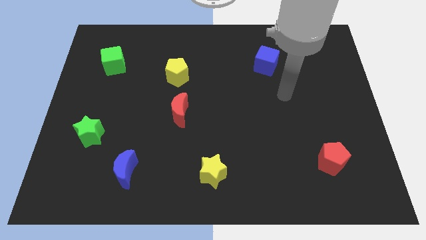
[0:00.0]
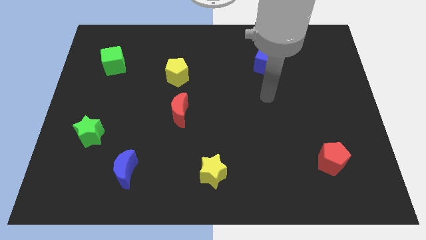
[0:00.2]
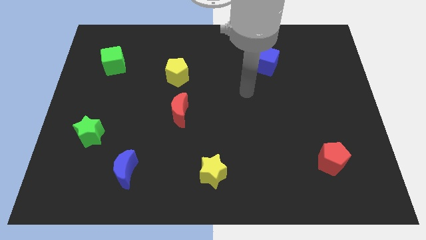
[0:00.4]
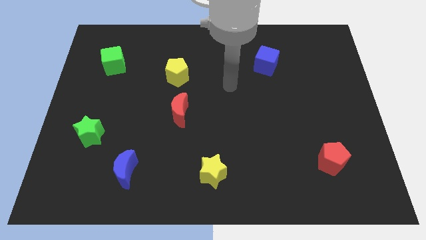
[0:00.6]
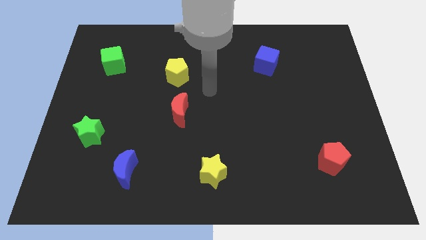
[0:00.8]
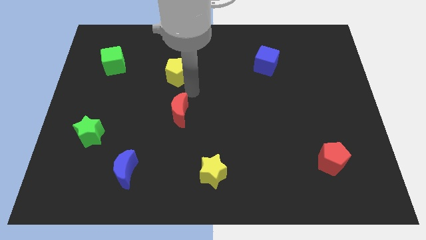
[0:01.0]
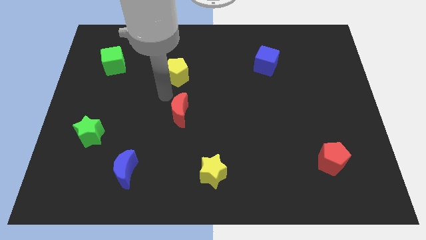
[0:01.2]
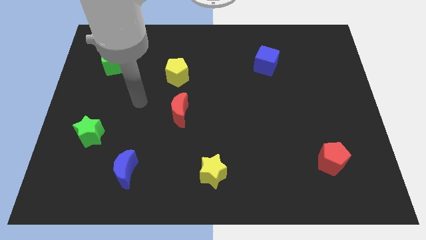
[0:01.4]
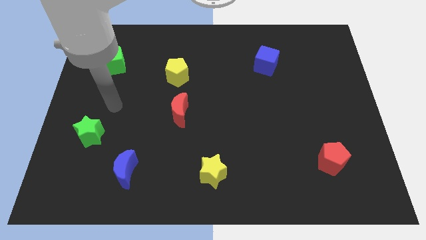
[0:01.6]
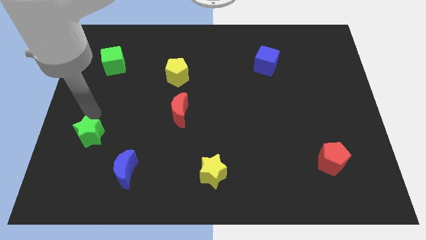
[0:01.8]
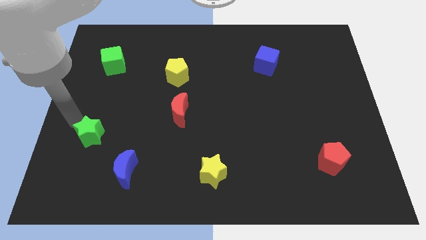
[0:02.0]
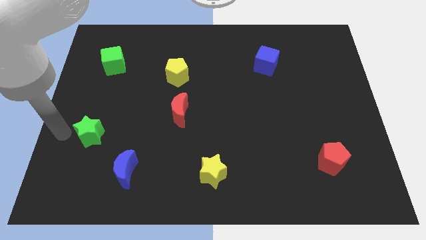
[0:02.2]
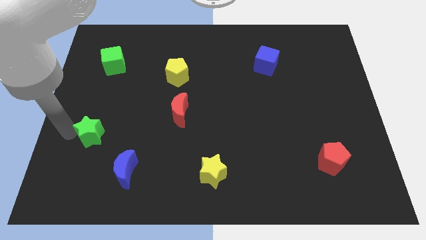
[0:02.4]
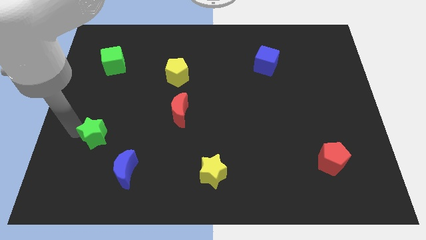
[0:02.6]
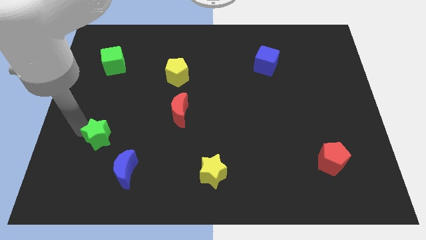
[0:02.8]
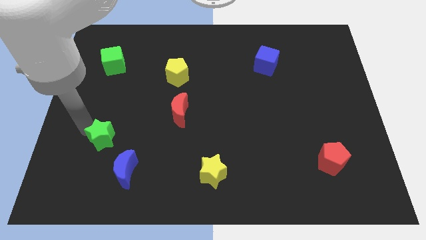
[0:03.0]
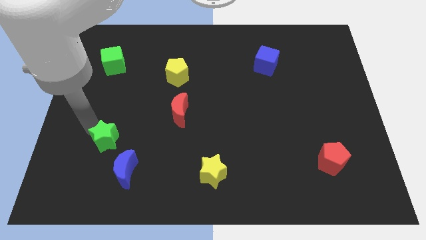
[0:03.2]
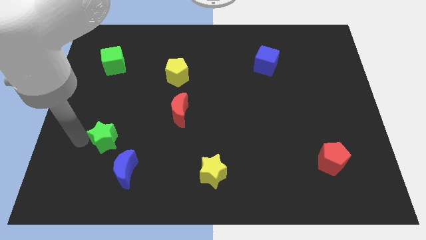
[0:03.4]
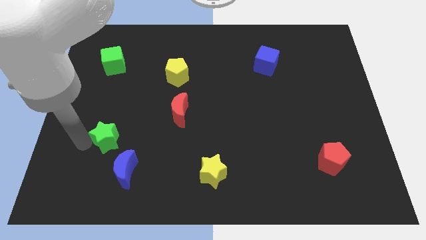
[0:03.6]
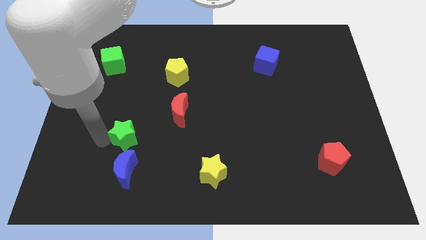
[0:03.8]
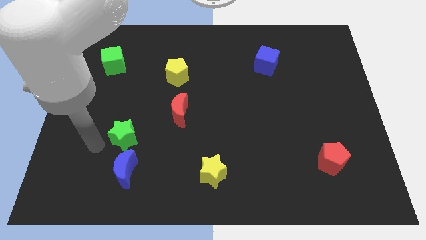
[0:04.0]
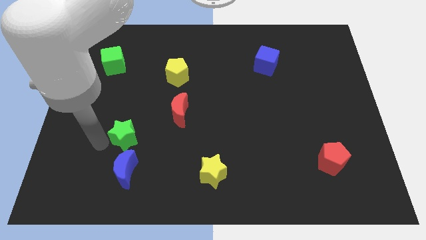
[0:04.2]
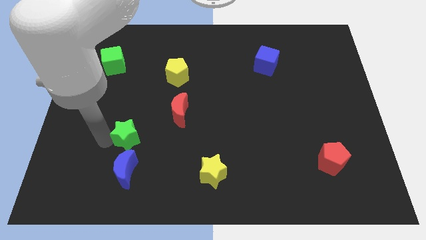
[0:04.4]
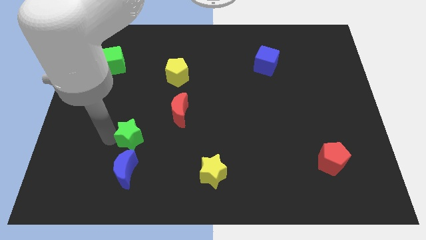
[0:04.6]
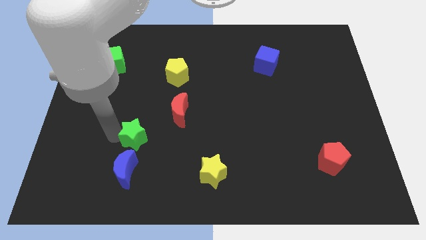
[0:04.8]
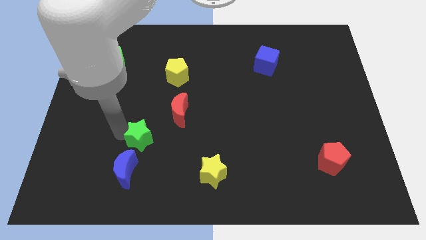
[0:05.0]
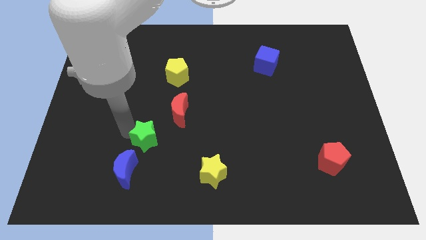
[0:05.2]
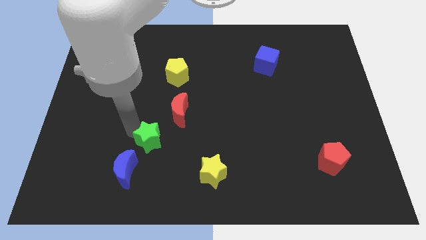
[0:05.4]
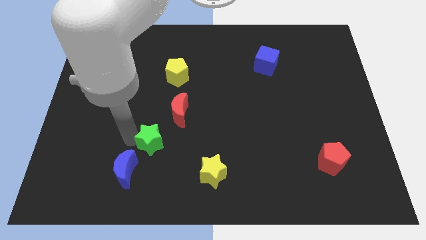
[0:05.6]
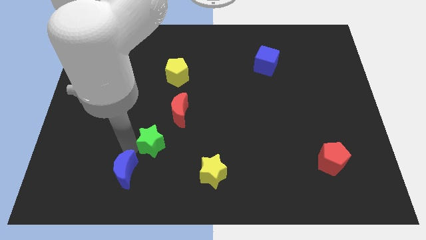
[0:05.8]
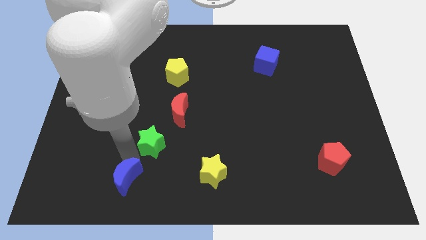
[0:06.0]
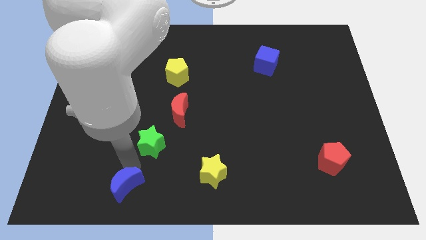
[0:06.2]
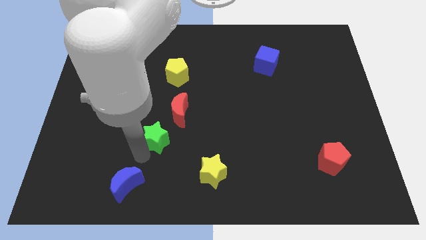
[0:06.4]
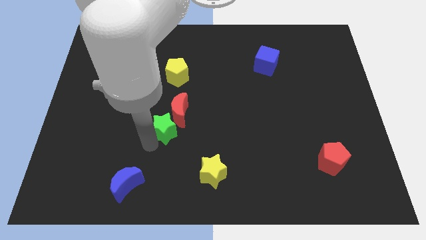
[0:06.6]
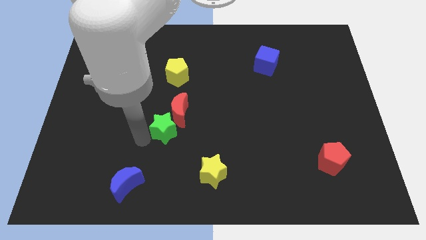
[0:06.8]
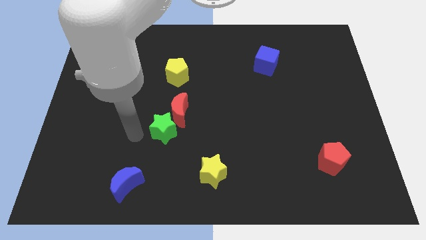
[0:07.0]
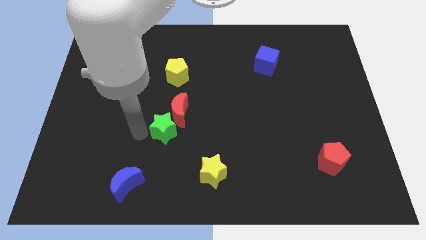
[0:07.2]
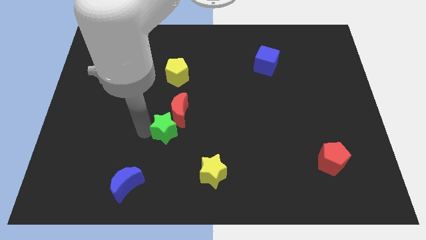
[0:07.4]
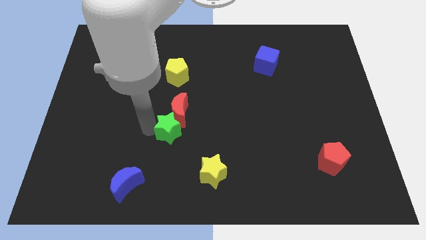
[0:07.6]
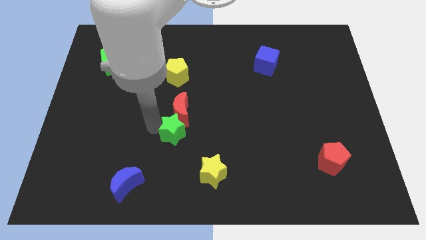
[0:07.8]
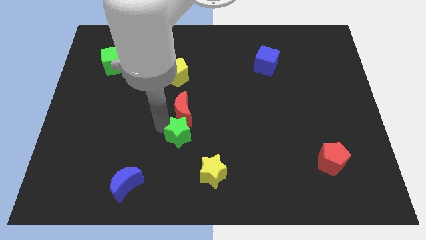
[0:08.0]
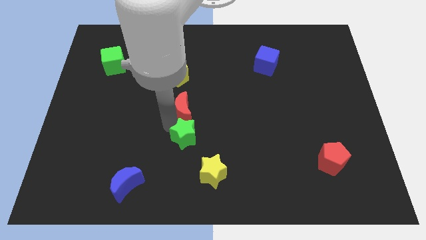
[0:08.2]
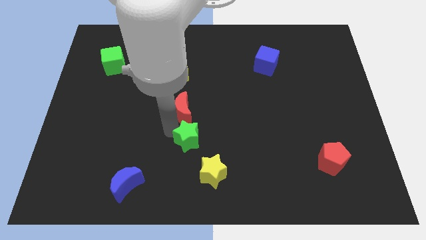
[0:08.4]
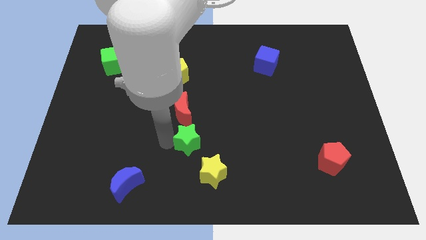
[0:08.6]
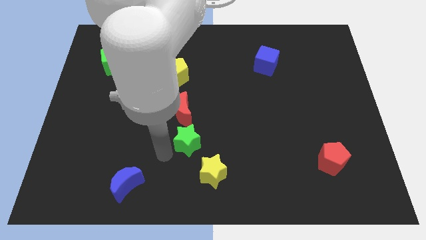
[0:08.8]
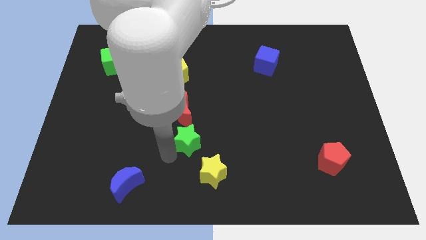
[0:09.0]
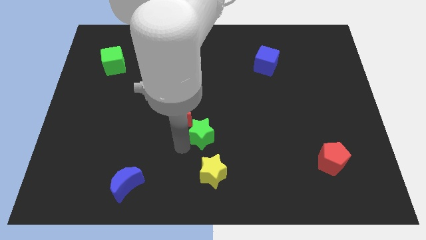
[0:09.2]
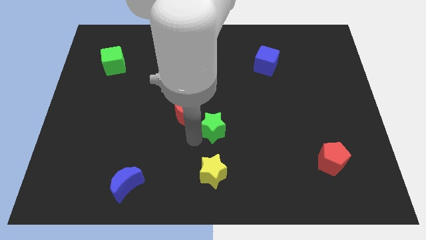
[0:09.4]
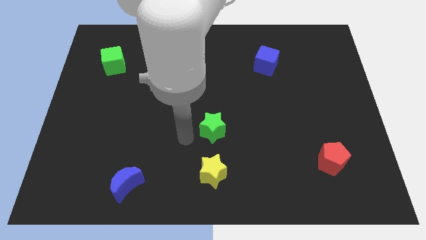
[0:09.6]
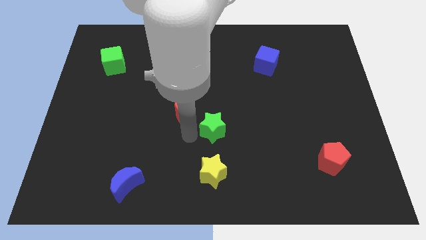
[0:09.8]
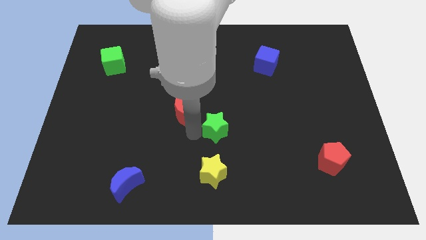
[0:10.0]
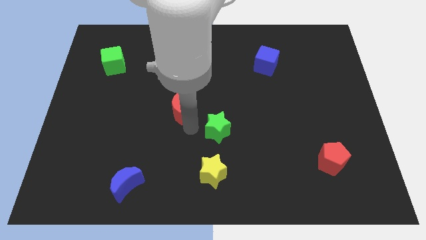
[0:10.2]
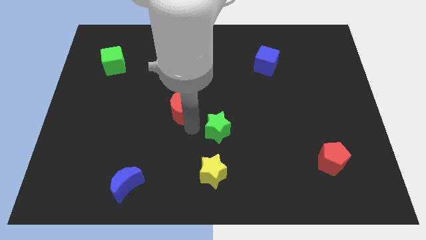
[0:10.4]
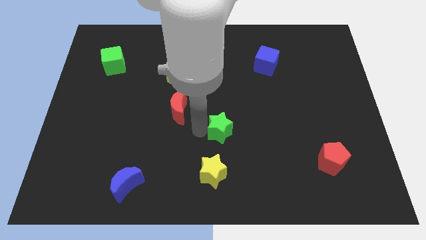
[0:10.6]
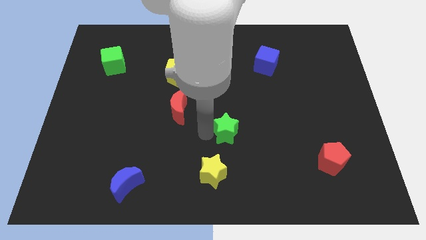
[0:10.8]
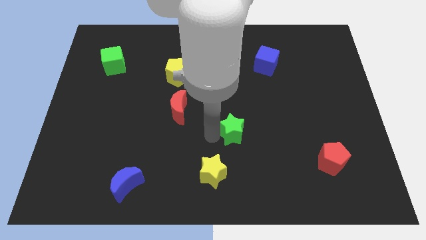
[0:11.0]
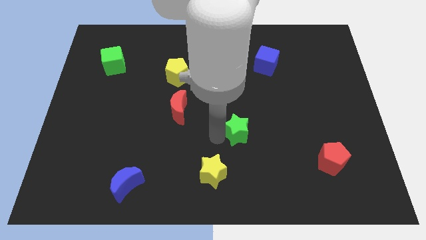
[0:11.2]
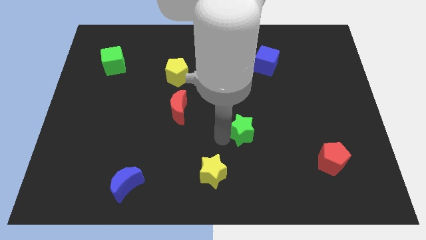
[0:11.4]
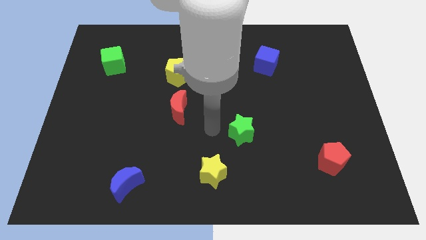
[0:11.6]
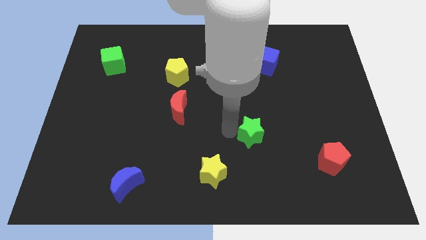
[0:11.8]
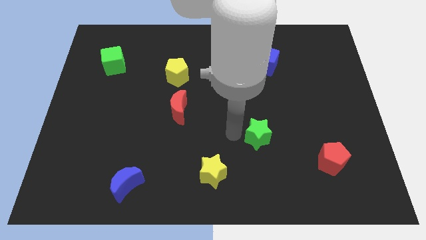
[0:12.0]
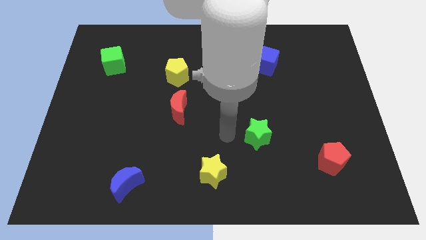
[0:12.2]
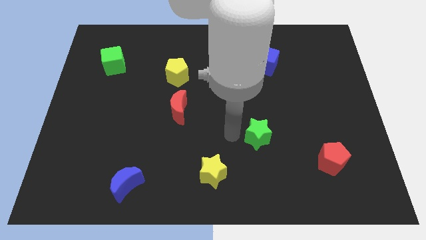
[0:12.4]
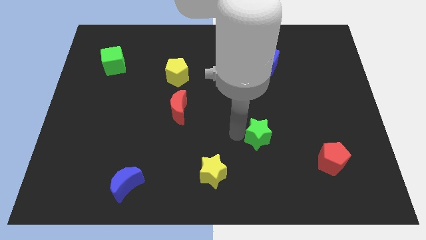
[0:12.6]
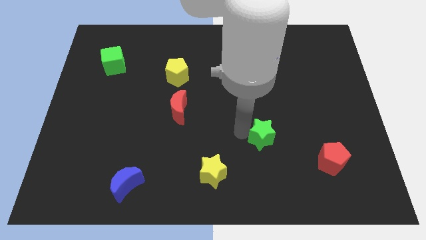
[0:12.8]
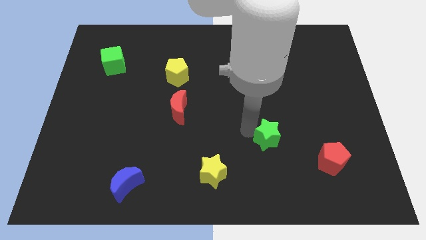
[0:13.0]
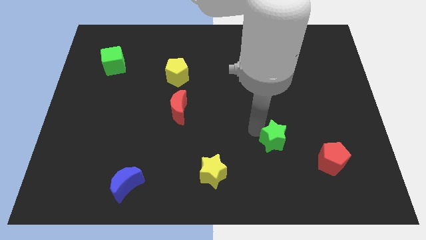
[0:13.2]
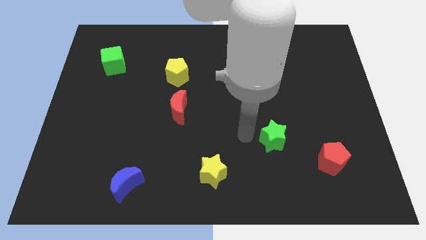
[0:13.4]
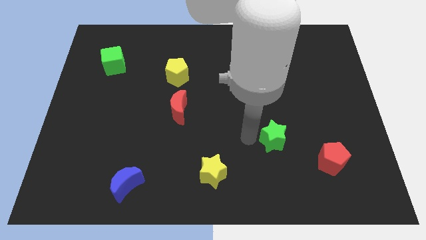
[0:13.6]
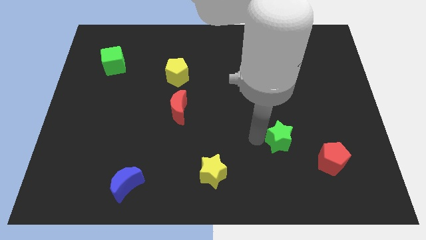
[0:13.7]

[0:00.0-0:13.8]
push the green star diagonally up and to the left of the red pentagon

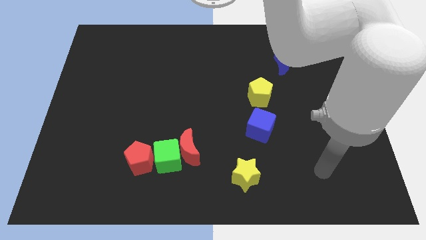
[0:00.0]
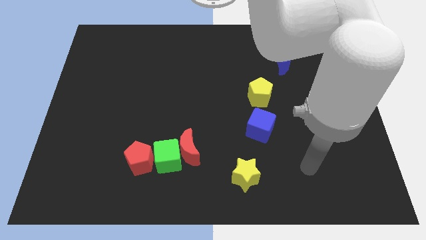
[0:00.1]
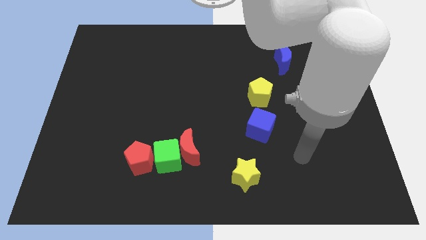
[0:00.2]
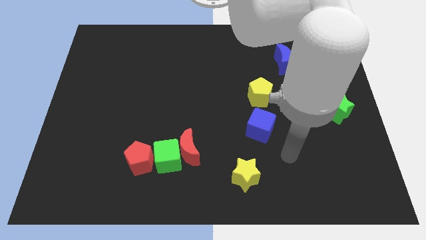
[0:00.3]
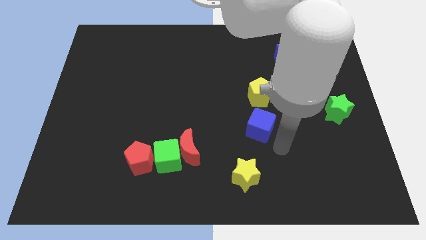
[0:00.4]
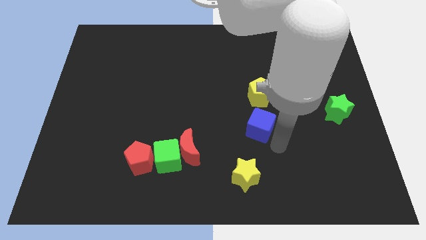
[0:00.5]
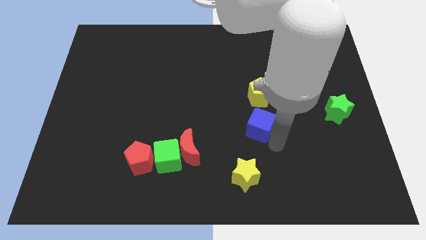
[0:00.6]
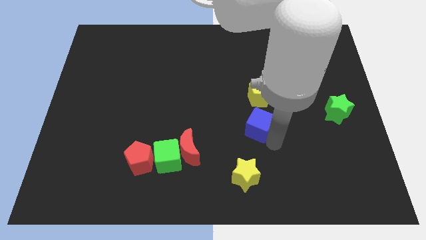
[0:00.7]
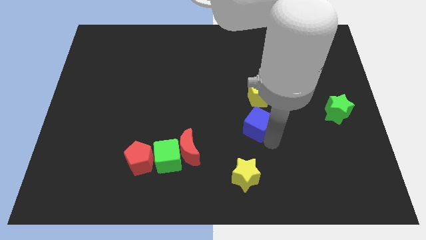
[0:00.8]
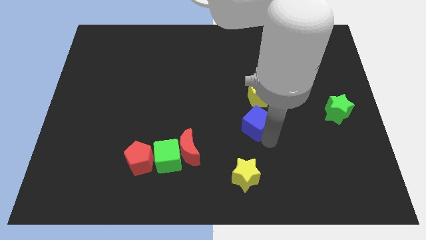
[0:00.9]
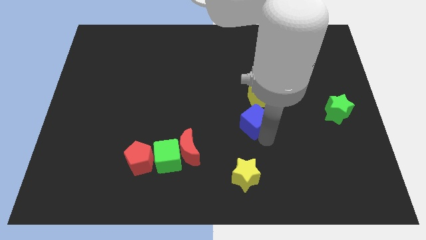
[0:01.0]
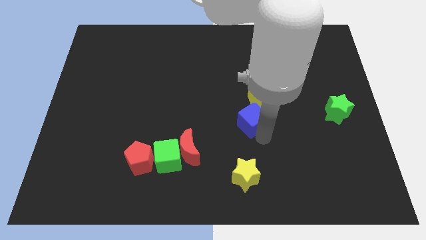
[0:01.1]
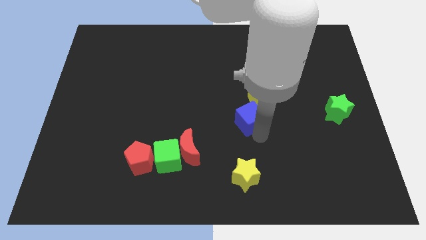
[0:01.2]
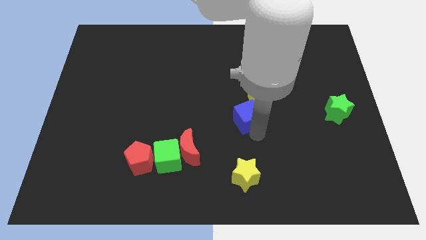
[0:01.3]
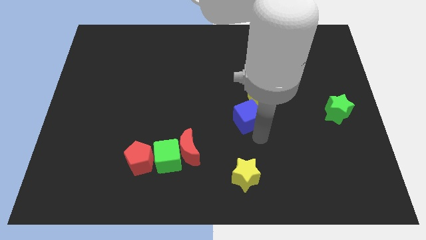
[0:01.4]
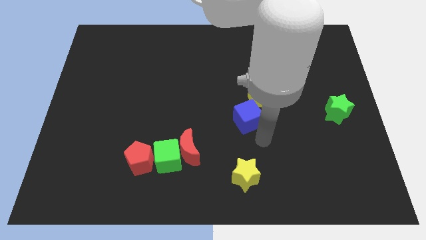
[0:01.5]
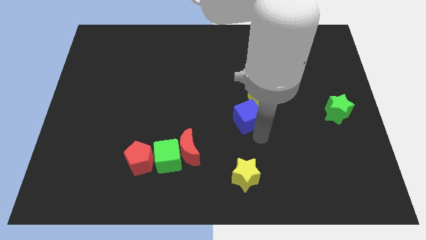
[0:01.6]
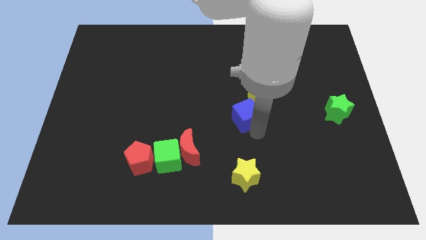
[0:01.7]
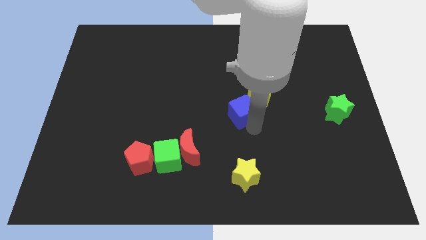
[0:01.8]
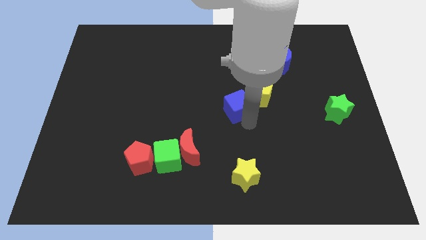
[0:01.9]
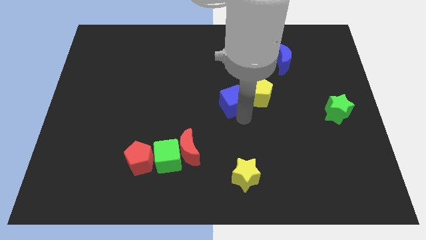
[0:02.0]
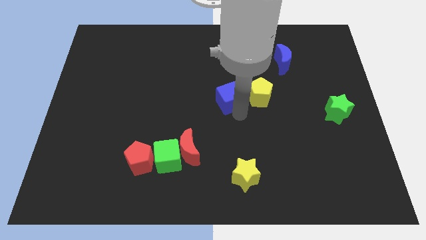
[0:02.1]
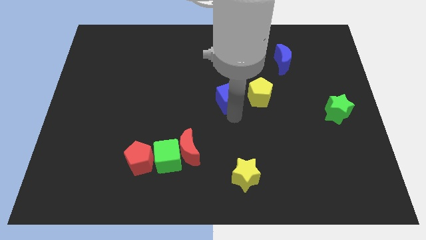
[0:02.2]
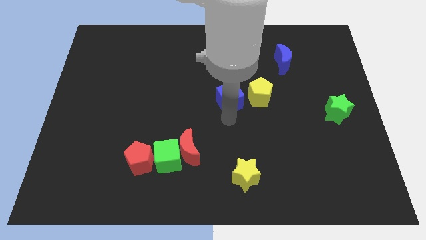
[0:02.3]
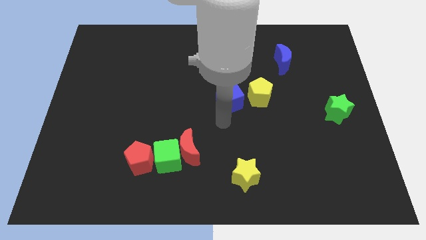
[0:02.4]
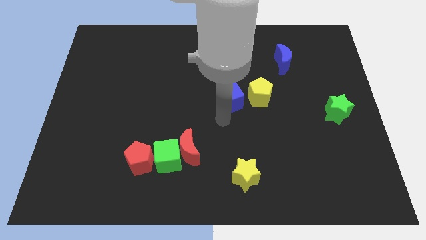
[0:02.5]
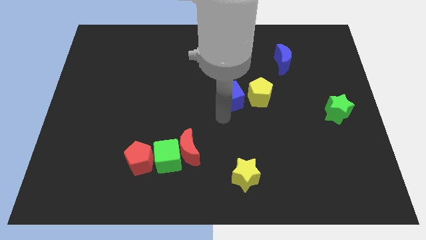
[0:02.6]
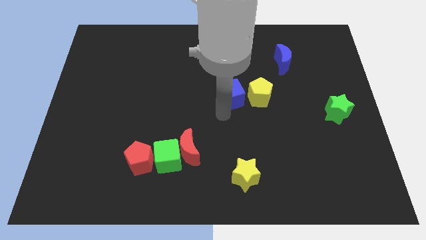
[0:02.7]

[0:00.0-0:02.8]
push the blue cube diagonally up and to the left of the yellow pentagon
